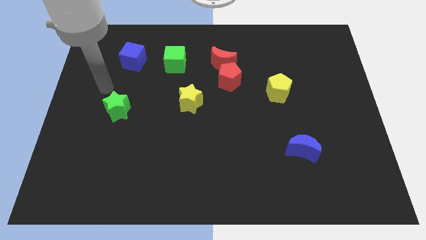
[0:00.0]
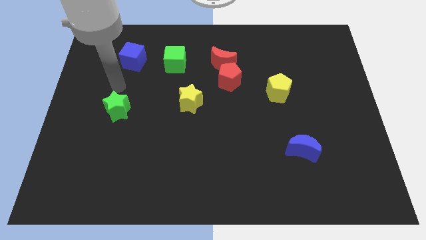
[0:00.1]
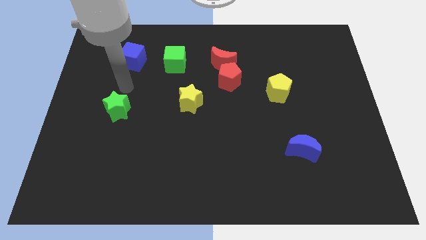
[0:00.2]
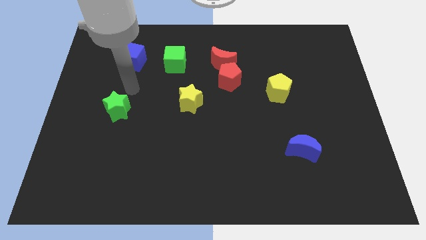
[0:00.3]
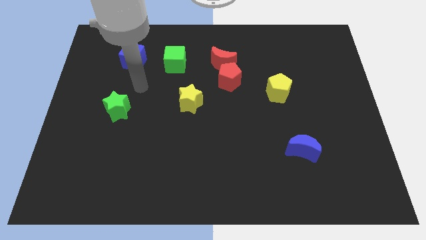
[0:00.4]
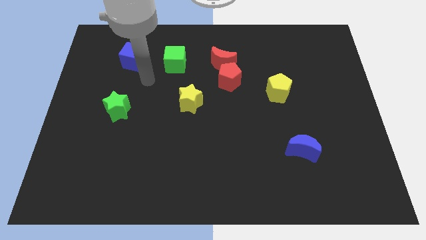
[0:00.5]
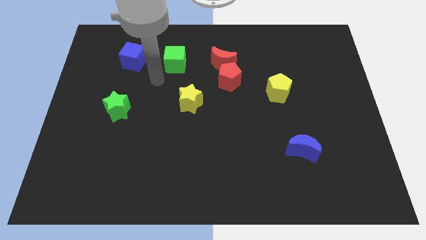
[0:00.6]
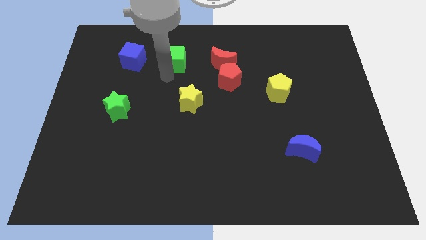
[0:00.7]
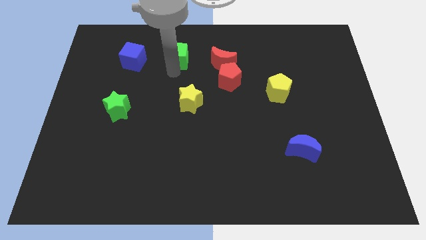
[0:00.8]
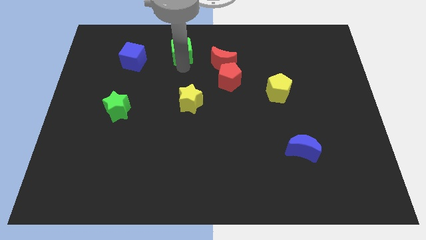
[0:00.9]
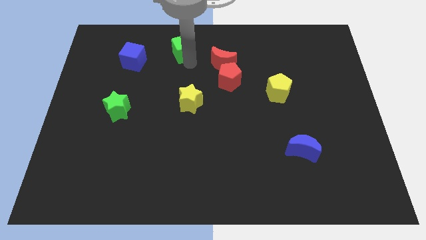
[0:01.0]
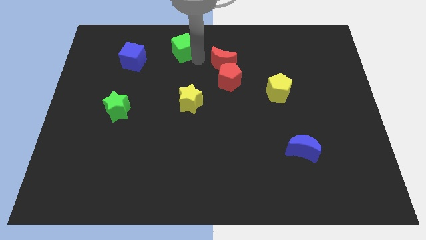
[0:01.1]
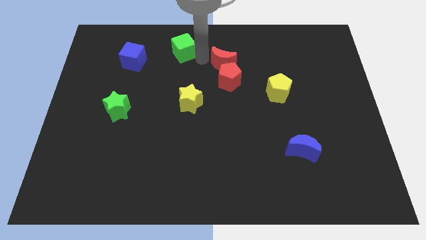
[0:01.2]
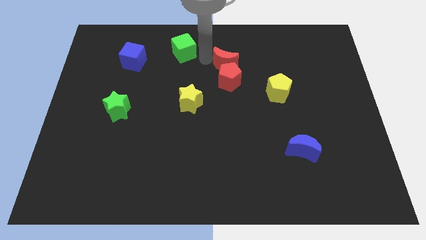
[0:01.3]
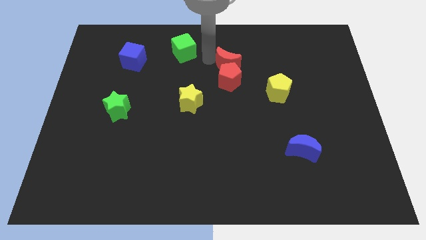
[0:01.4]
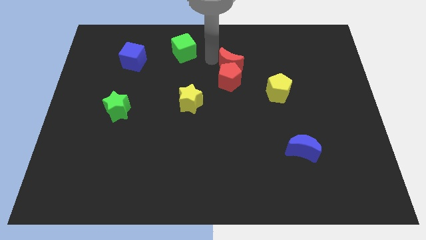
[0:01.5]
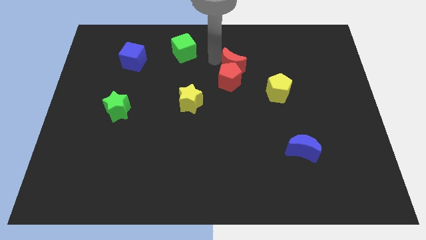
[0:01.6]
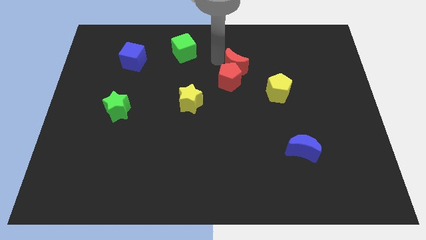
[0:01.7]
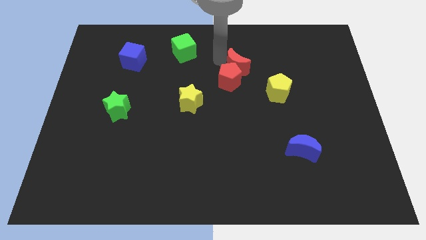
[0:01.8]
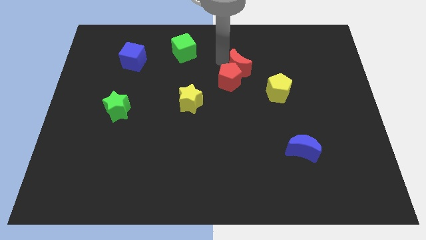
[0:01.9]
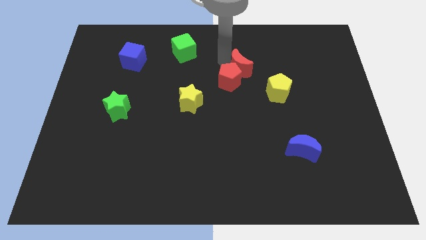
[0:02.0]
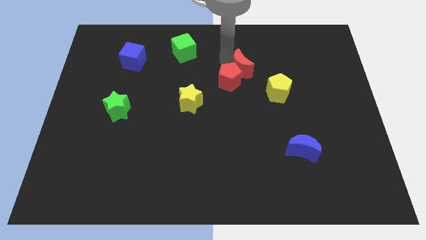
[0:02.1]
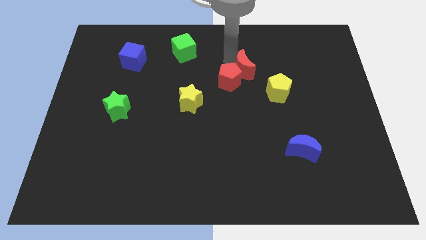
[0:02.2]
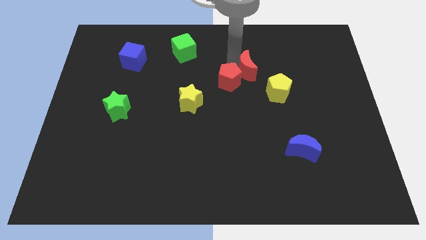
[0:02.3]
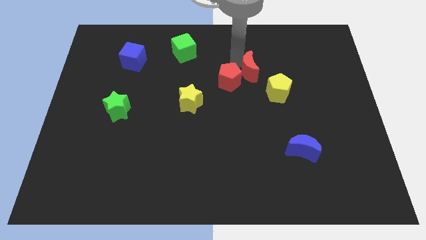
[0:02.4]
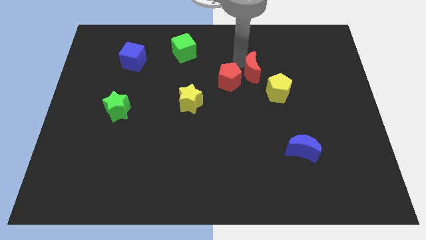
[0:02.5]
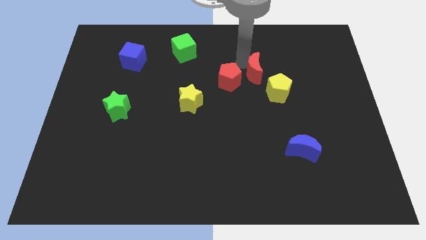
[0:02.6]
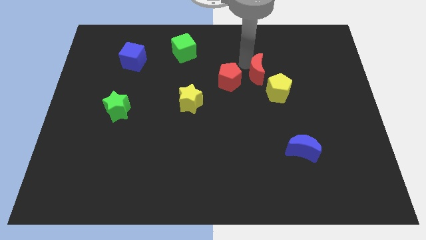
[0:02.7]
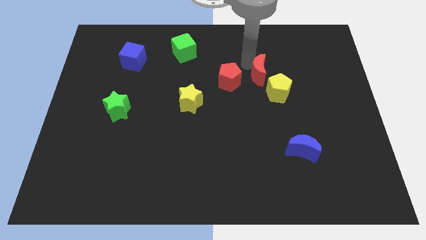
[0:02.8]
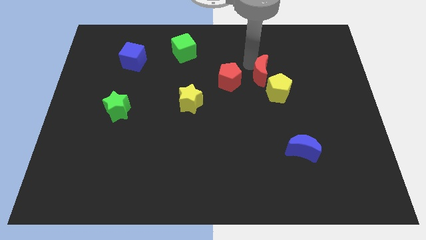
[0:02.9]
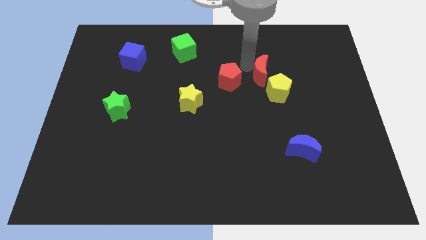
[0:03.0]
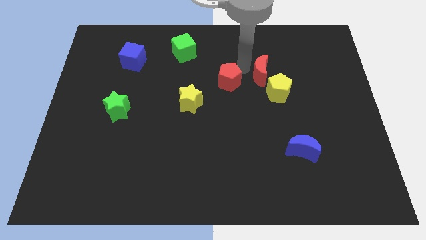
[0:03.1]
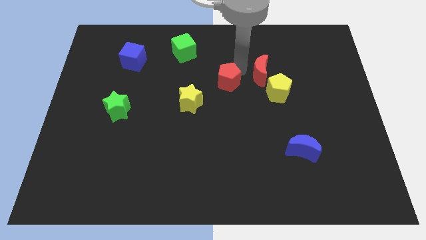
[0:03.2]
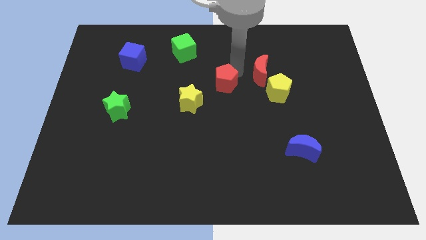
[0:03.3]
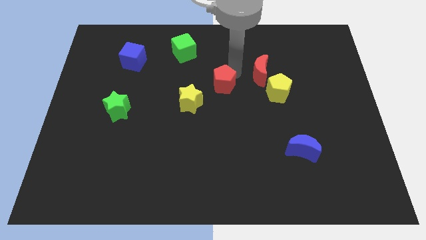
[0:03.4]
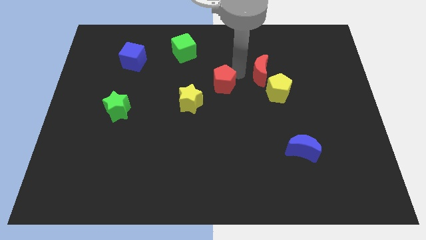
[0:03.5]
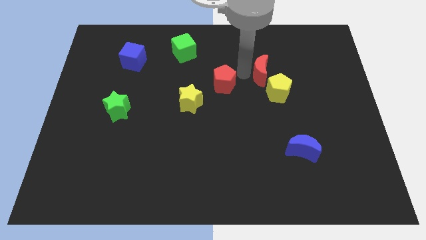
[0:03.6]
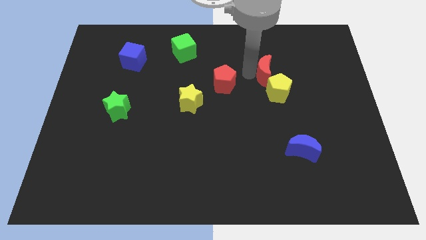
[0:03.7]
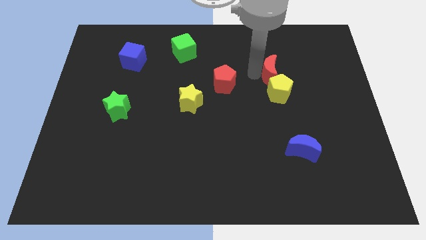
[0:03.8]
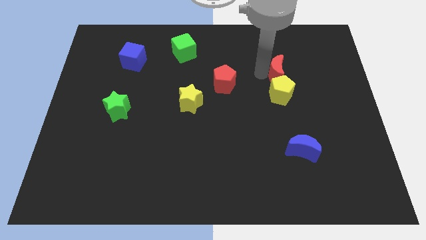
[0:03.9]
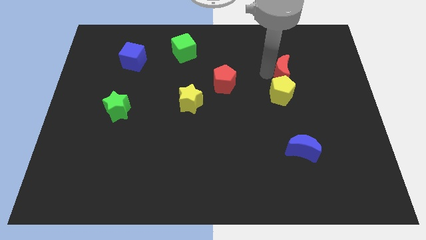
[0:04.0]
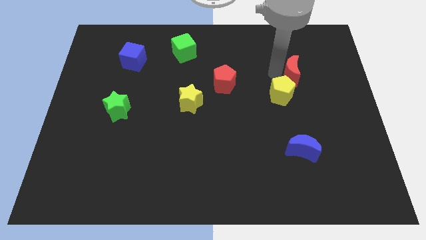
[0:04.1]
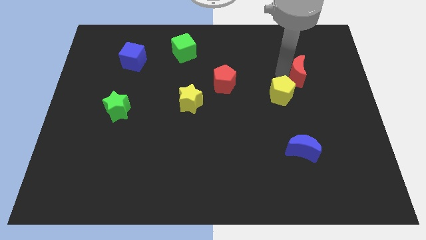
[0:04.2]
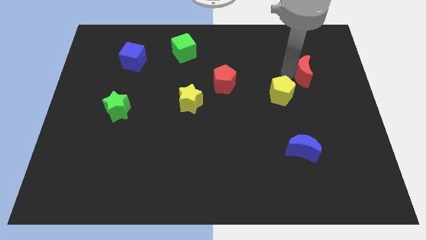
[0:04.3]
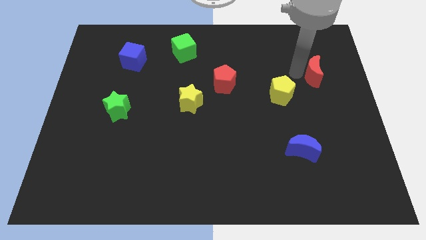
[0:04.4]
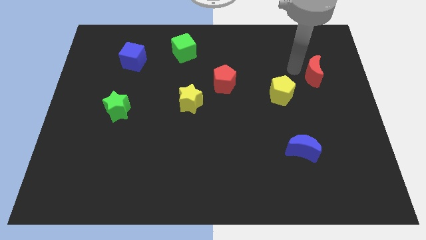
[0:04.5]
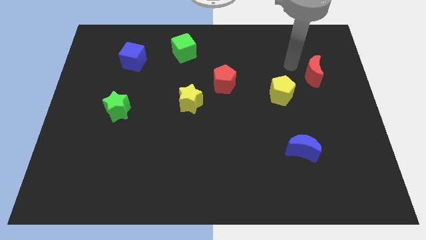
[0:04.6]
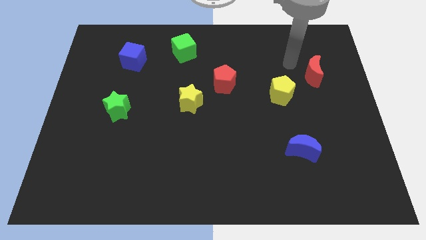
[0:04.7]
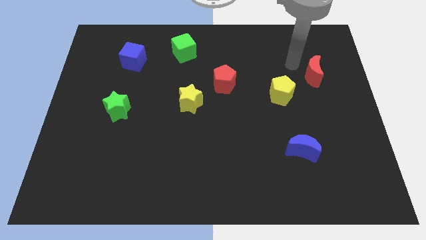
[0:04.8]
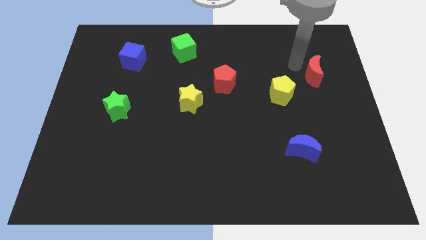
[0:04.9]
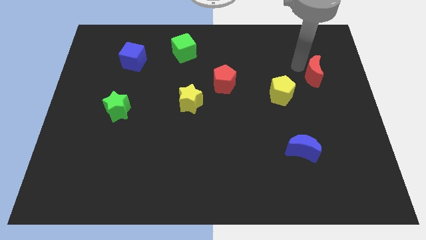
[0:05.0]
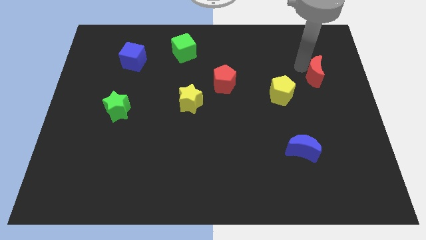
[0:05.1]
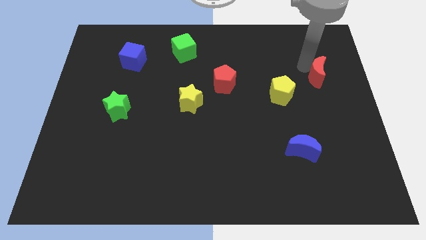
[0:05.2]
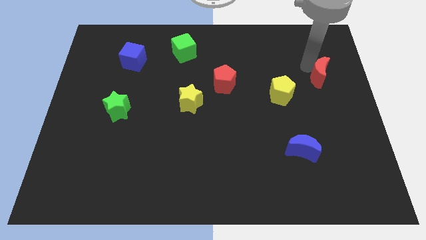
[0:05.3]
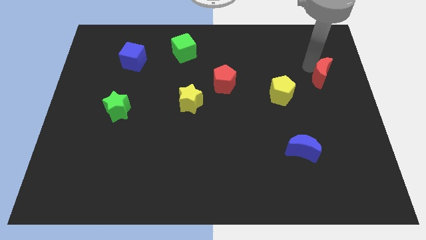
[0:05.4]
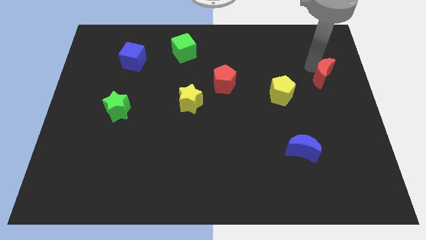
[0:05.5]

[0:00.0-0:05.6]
put the red moon to the center right
